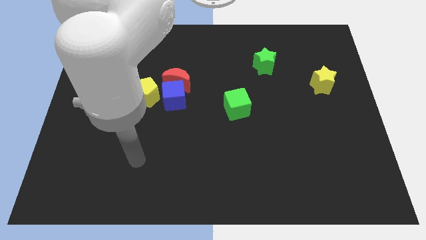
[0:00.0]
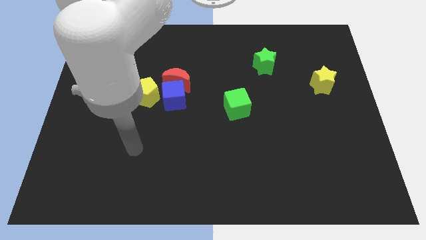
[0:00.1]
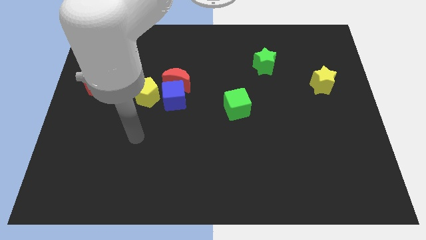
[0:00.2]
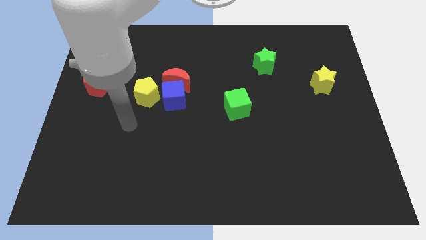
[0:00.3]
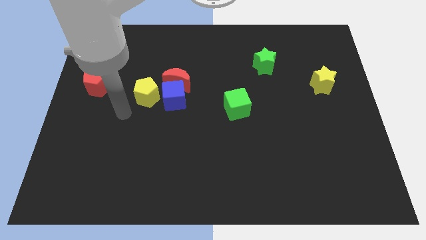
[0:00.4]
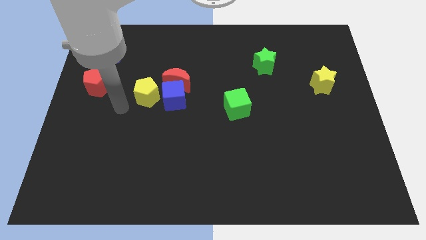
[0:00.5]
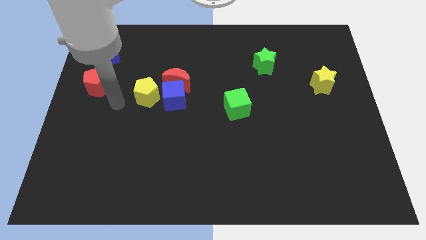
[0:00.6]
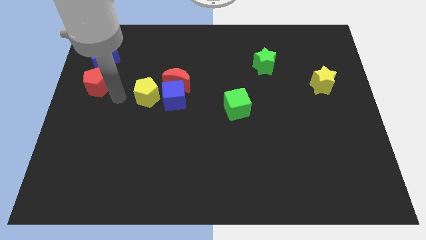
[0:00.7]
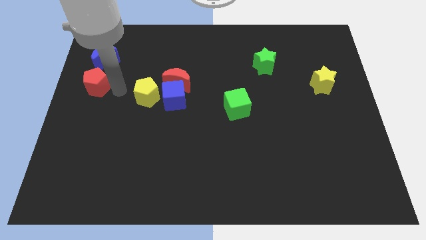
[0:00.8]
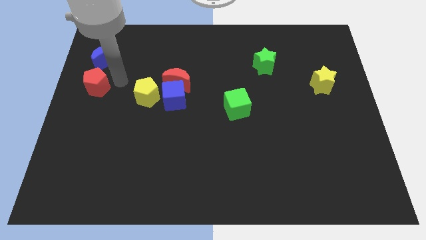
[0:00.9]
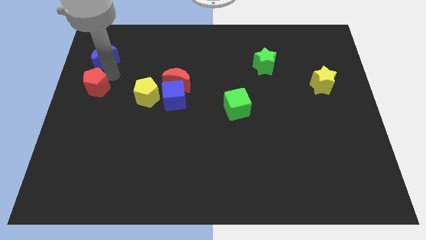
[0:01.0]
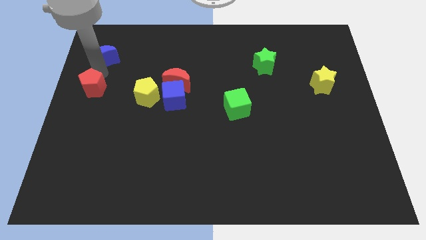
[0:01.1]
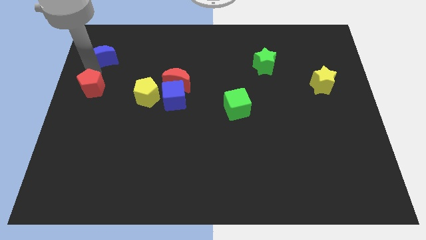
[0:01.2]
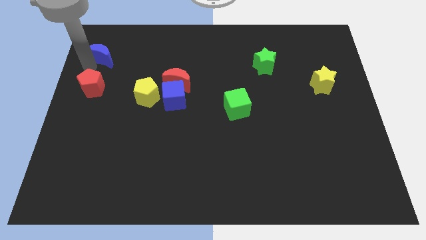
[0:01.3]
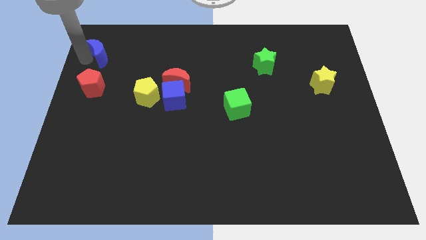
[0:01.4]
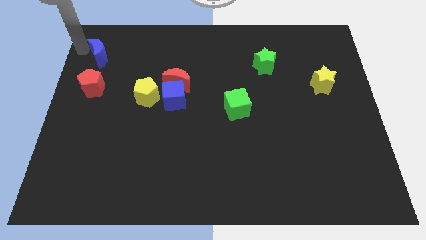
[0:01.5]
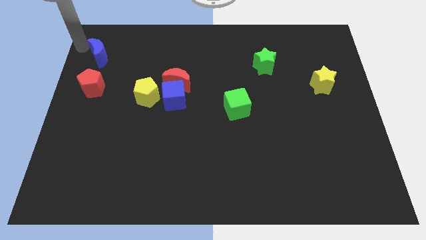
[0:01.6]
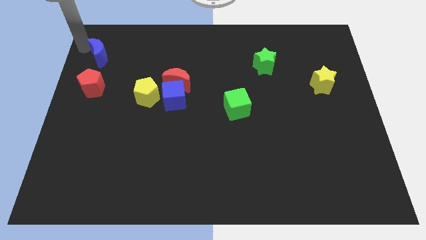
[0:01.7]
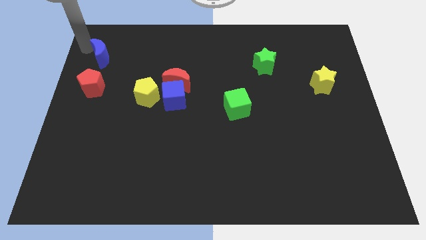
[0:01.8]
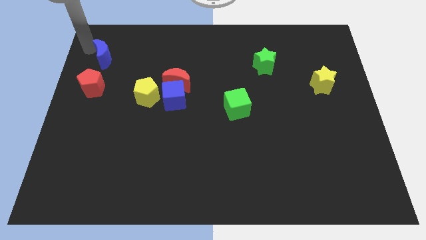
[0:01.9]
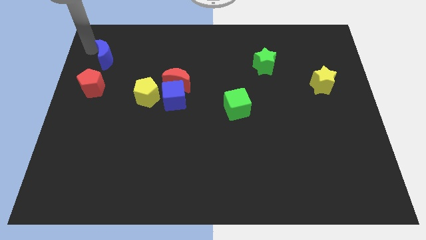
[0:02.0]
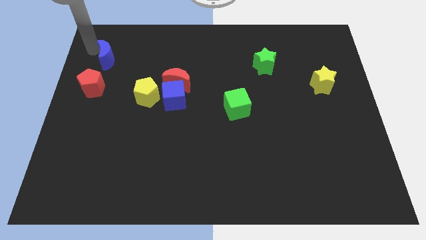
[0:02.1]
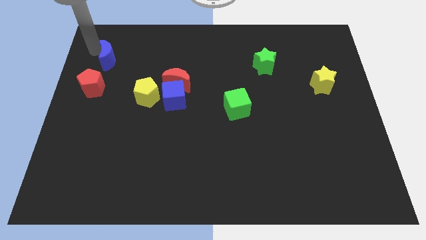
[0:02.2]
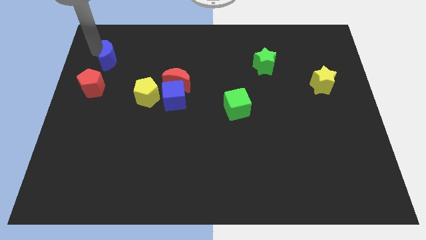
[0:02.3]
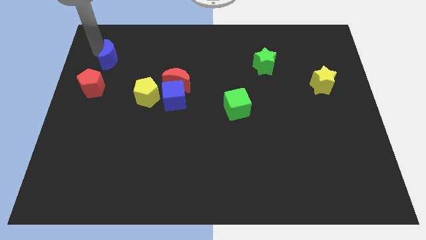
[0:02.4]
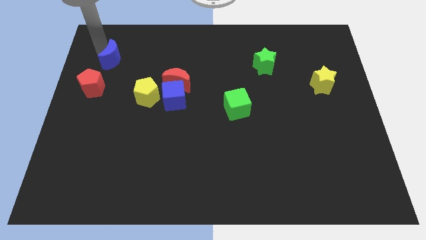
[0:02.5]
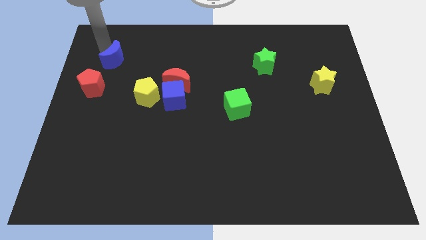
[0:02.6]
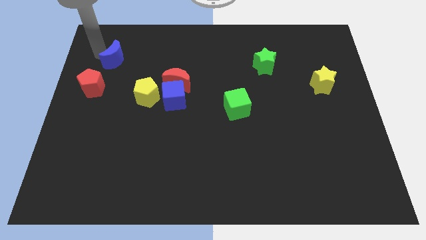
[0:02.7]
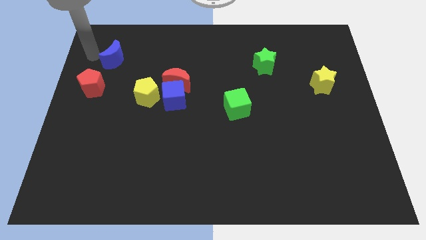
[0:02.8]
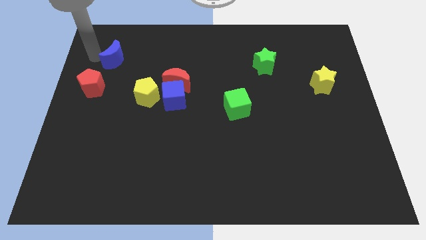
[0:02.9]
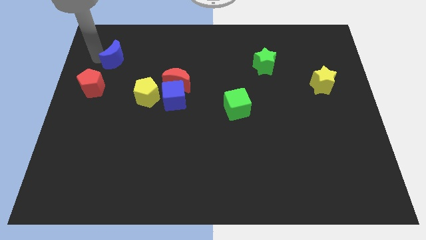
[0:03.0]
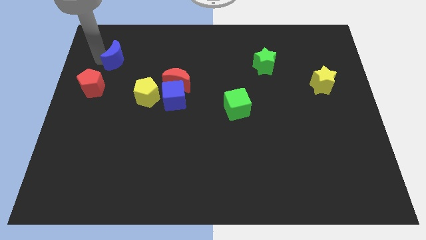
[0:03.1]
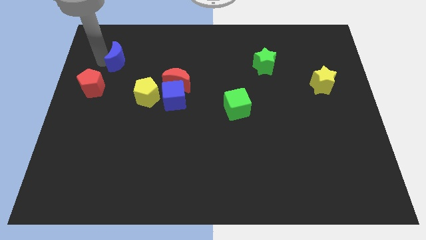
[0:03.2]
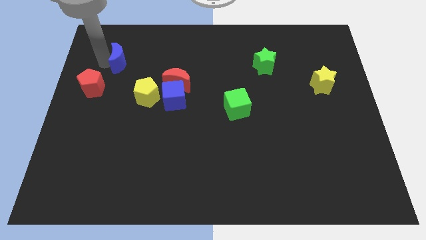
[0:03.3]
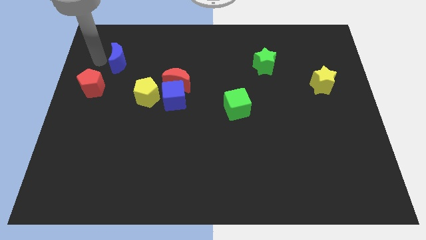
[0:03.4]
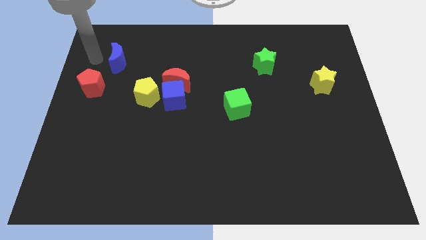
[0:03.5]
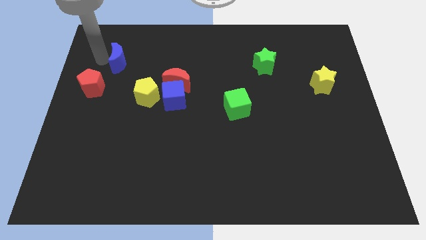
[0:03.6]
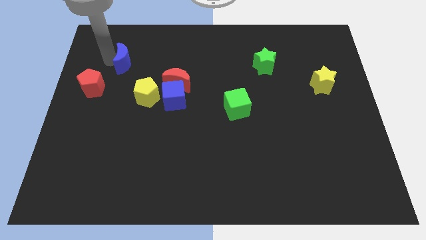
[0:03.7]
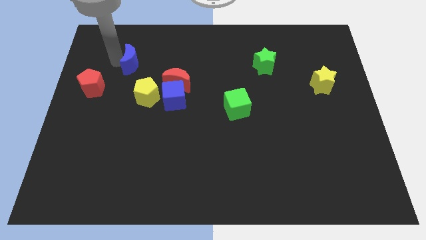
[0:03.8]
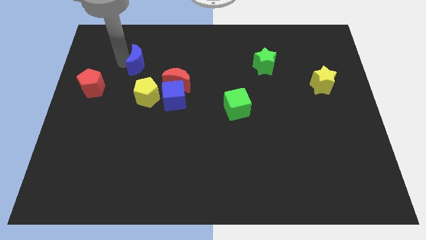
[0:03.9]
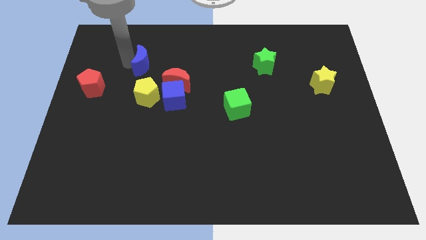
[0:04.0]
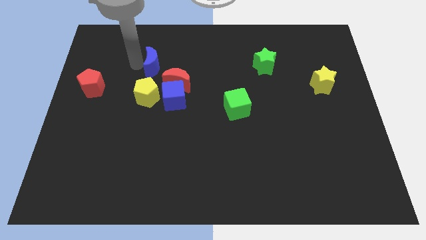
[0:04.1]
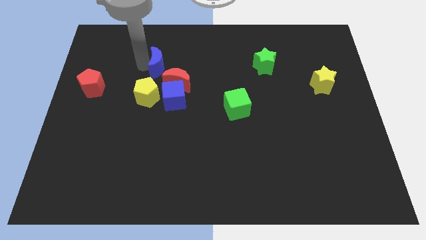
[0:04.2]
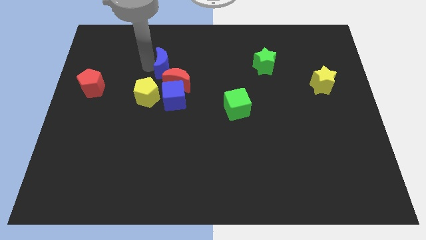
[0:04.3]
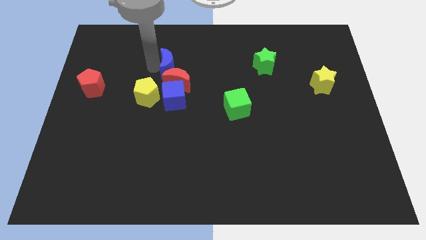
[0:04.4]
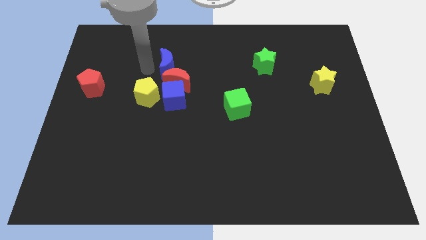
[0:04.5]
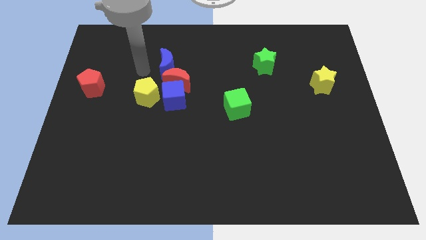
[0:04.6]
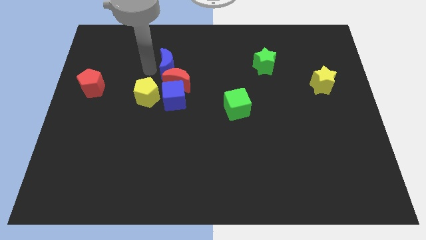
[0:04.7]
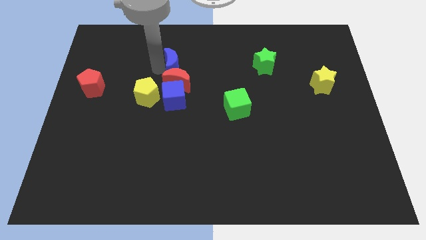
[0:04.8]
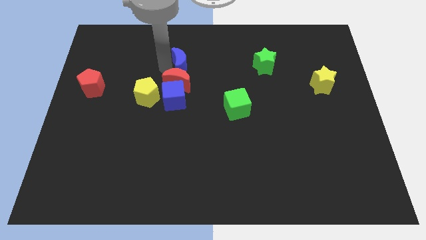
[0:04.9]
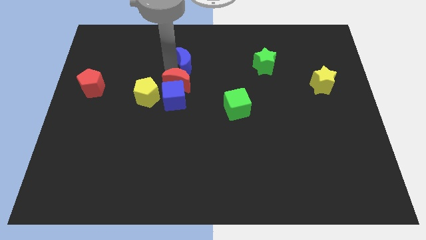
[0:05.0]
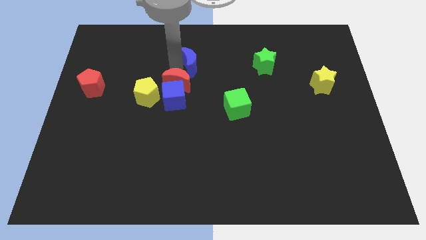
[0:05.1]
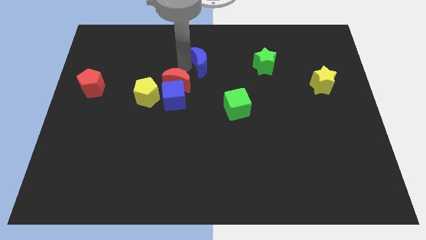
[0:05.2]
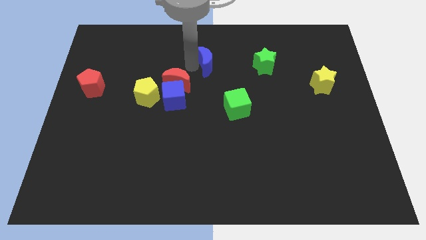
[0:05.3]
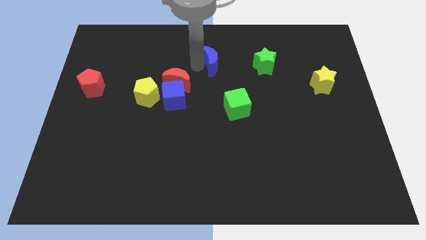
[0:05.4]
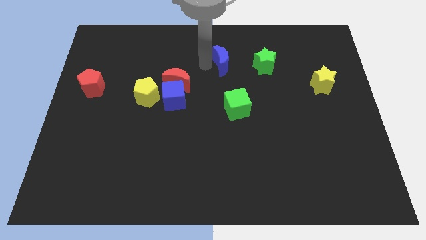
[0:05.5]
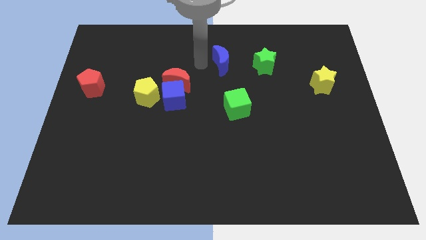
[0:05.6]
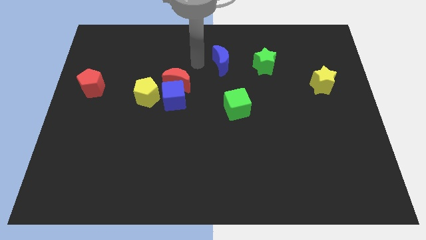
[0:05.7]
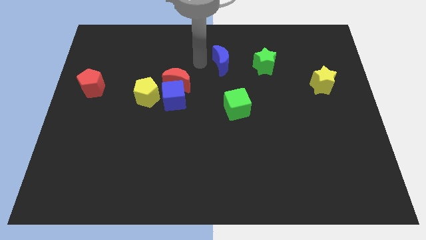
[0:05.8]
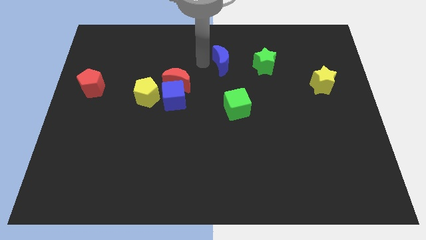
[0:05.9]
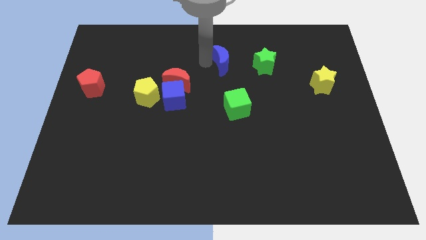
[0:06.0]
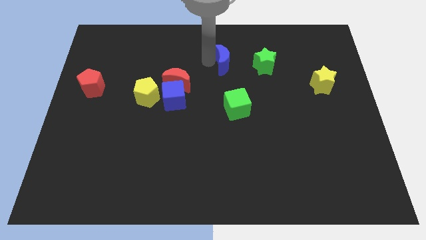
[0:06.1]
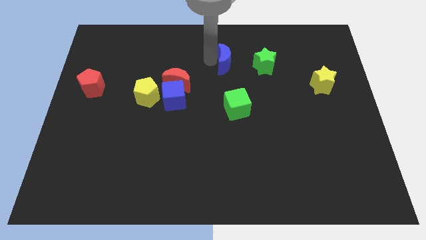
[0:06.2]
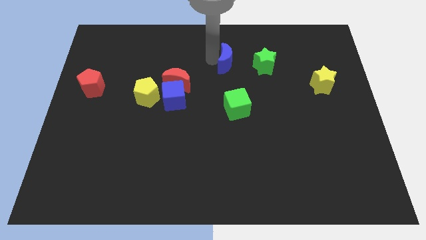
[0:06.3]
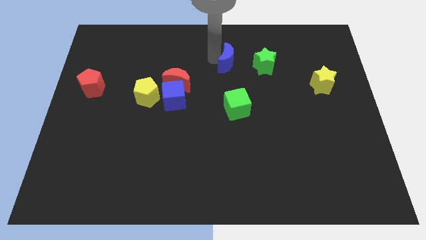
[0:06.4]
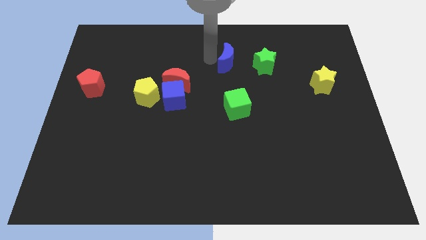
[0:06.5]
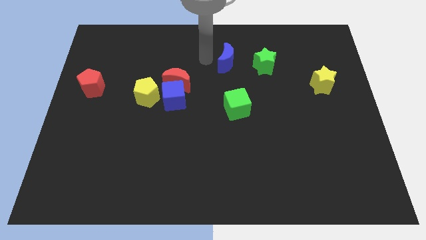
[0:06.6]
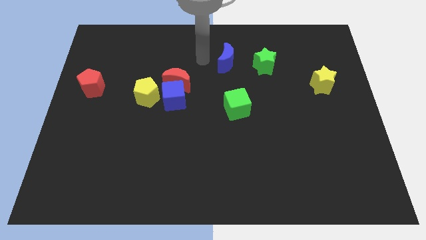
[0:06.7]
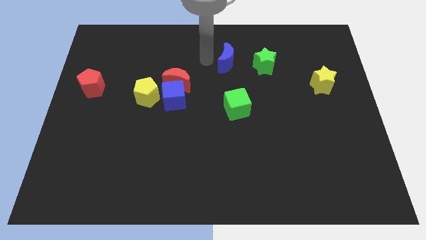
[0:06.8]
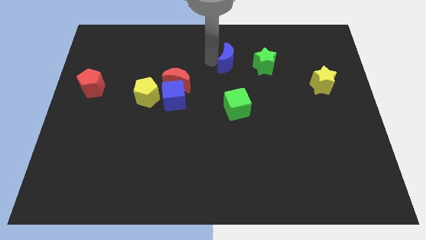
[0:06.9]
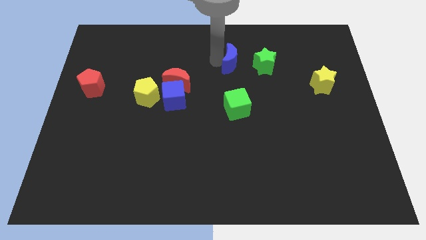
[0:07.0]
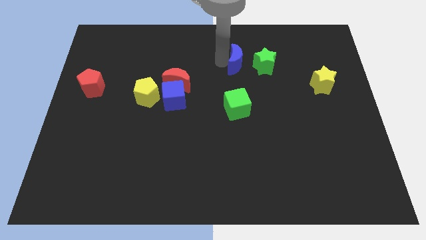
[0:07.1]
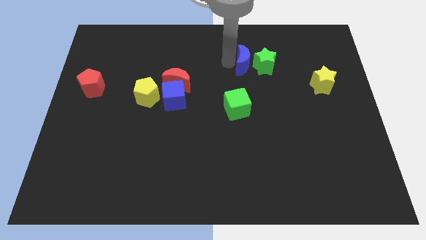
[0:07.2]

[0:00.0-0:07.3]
move the blue moon close to the green star

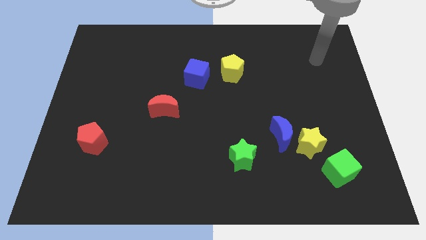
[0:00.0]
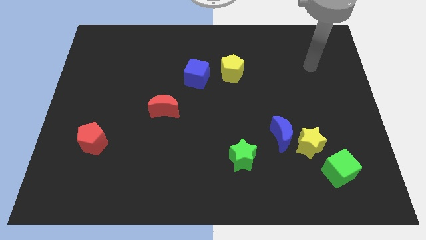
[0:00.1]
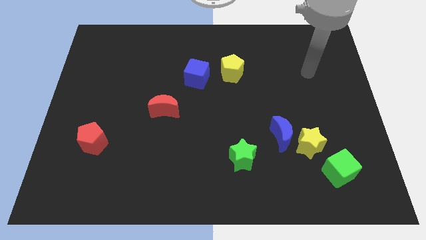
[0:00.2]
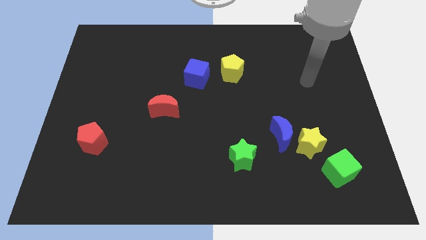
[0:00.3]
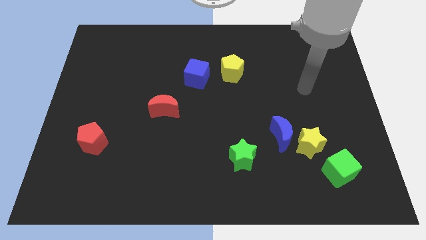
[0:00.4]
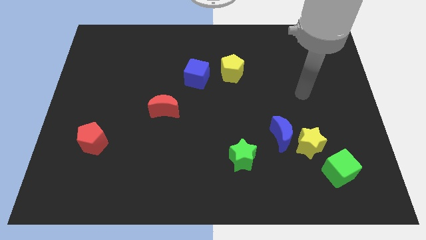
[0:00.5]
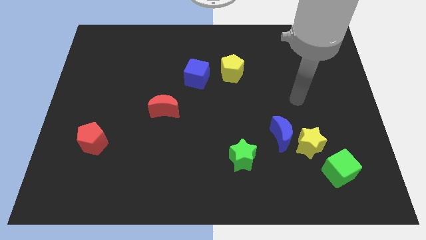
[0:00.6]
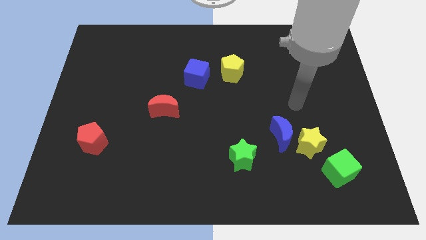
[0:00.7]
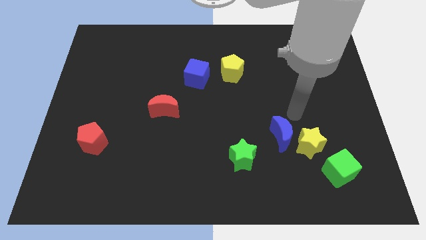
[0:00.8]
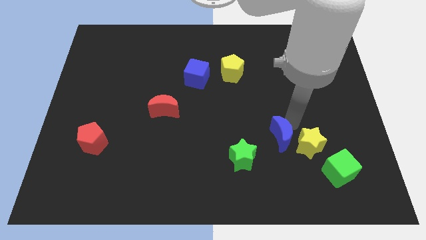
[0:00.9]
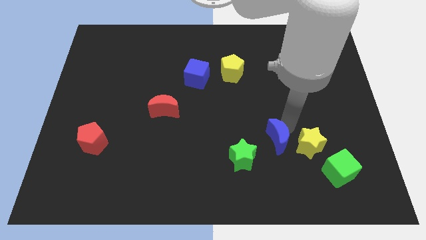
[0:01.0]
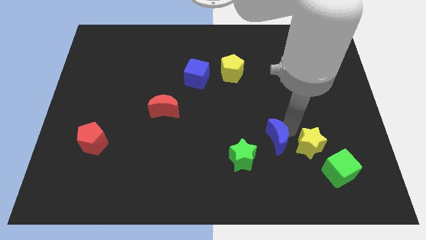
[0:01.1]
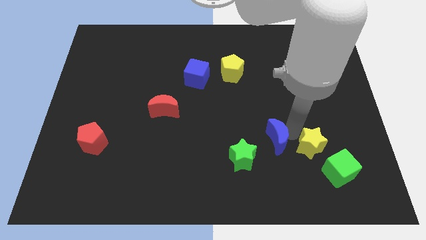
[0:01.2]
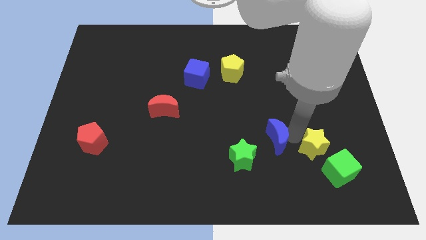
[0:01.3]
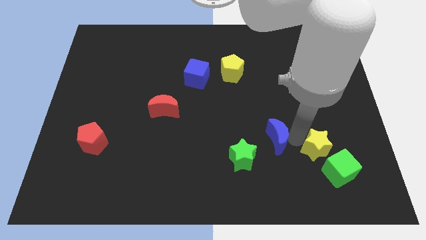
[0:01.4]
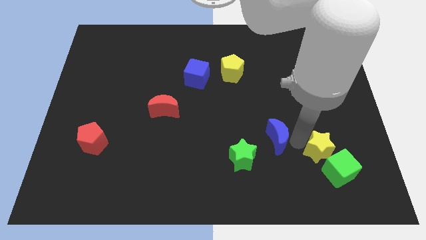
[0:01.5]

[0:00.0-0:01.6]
push the yellow star next to the green cube
